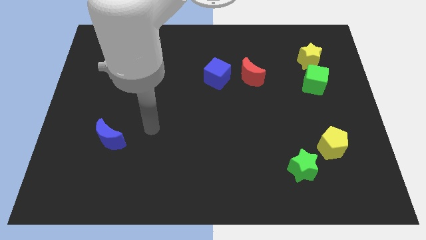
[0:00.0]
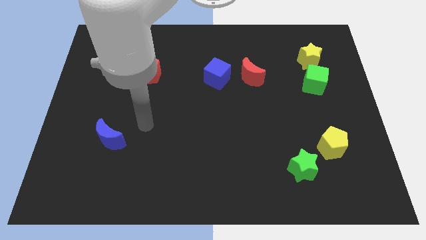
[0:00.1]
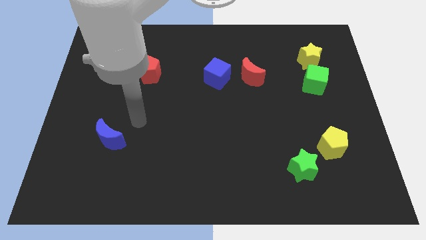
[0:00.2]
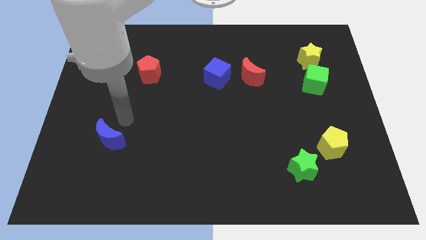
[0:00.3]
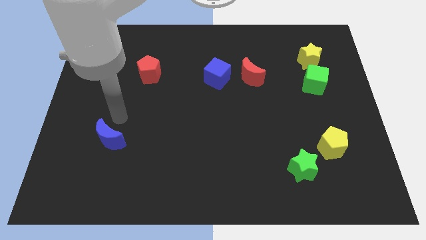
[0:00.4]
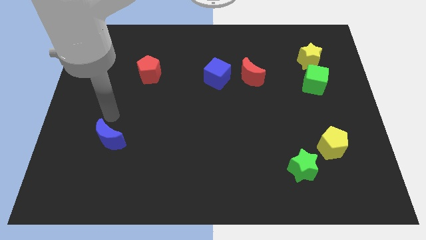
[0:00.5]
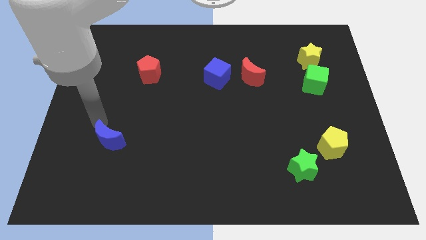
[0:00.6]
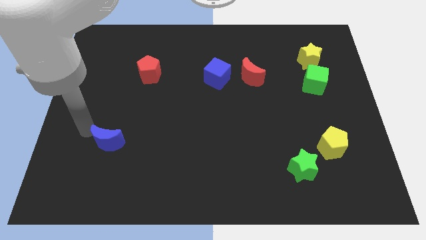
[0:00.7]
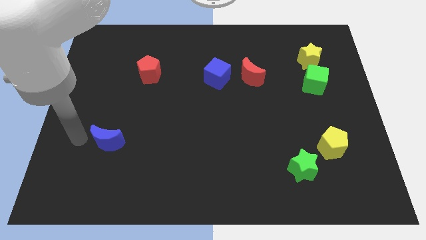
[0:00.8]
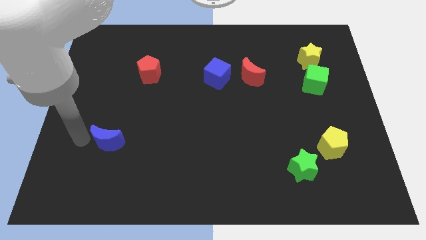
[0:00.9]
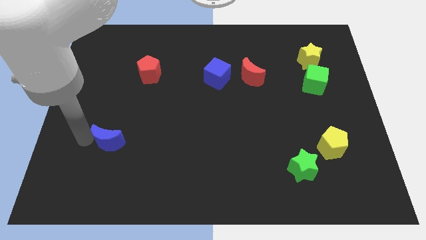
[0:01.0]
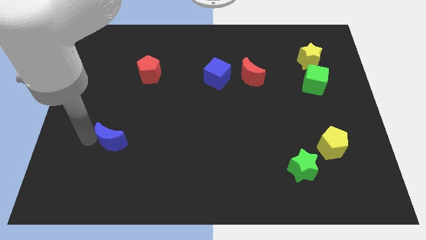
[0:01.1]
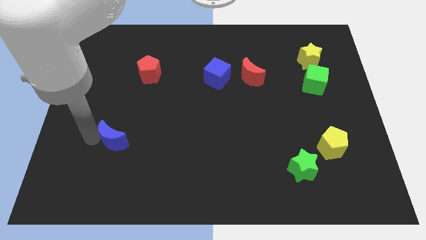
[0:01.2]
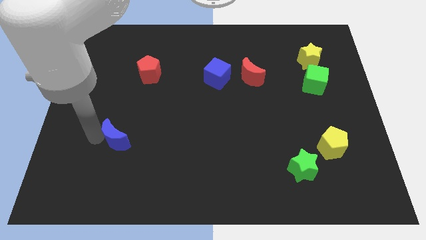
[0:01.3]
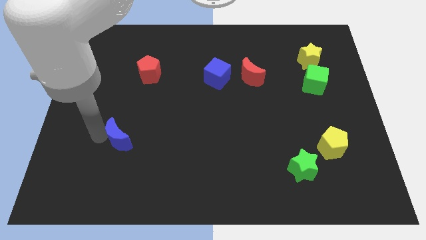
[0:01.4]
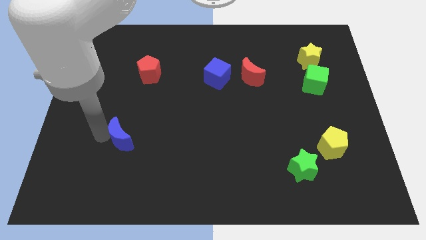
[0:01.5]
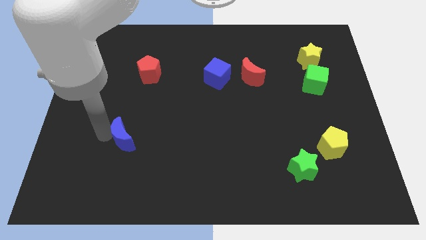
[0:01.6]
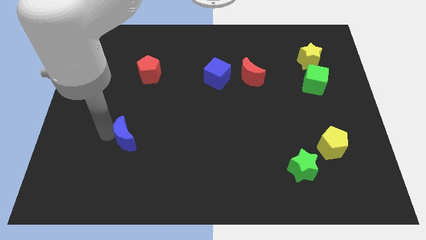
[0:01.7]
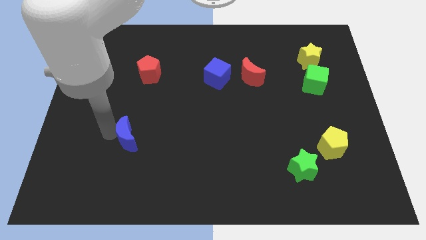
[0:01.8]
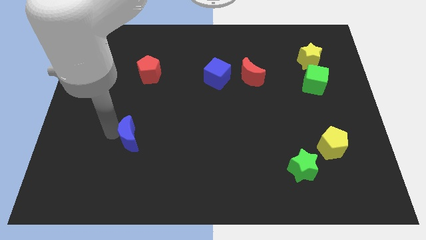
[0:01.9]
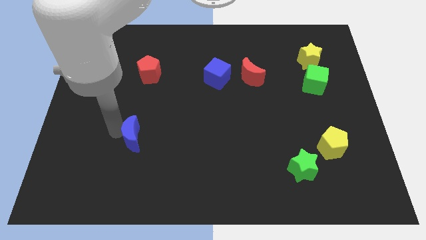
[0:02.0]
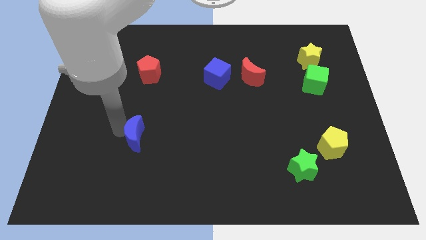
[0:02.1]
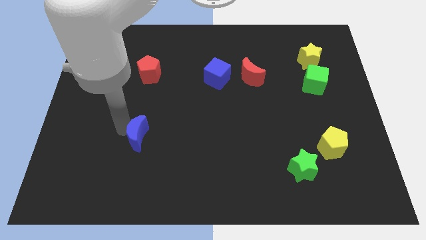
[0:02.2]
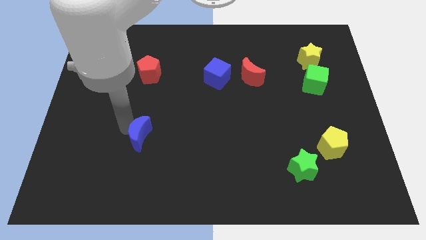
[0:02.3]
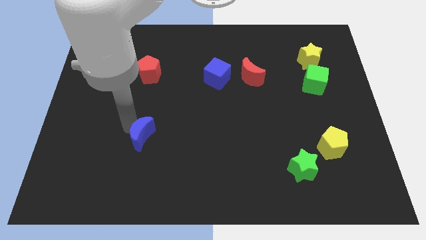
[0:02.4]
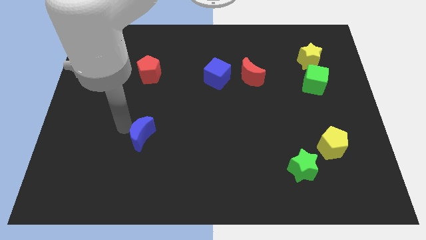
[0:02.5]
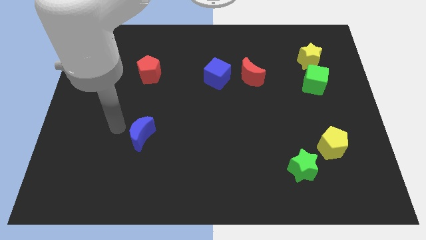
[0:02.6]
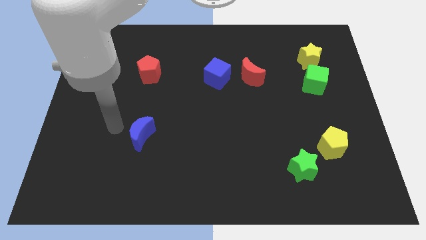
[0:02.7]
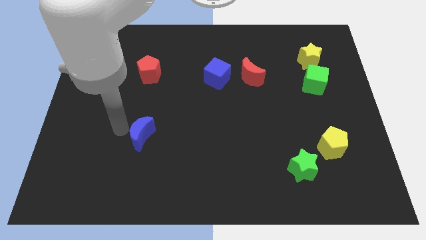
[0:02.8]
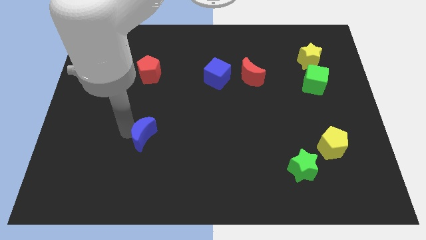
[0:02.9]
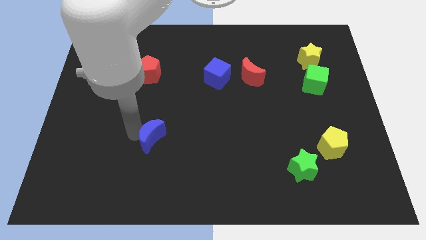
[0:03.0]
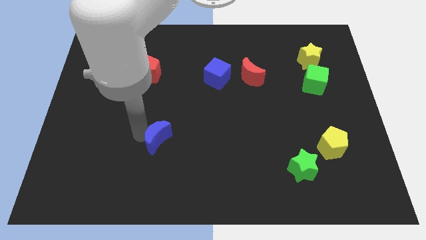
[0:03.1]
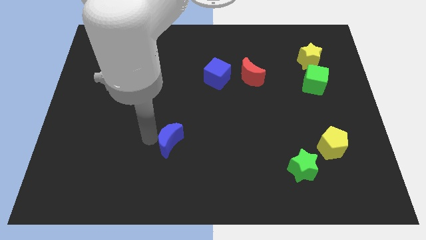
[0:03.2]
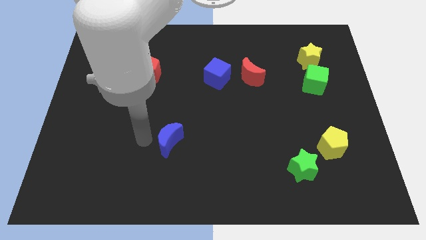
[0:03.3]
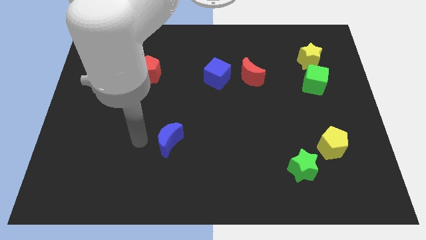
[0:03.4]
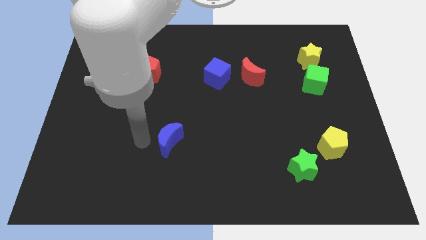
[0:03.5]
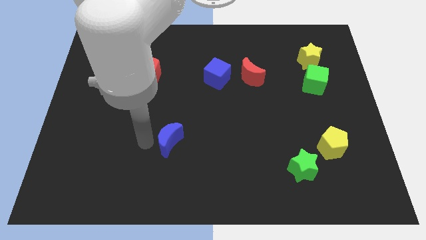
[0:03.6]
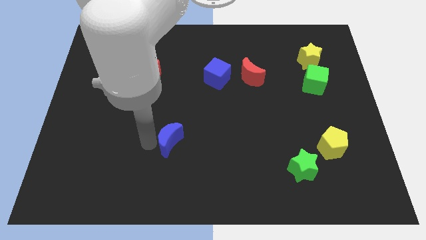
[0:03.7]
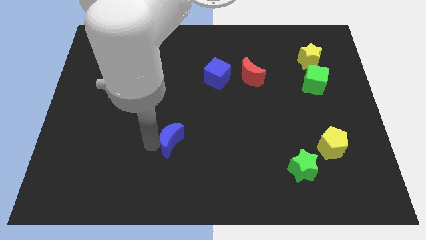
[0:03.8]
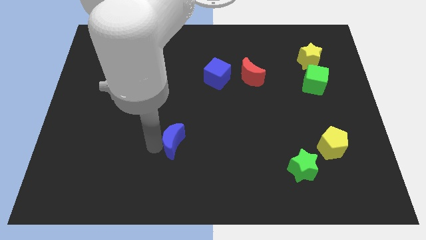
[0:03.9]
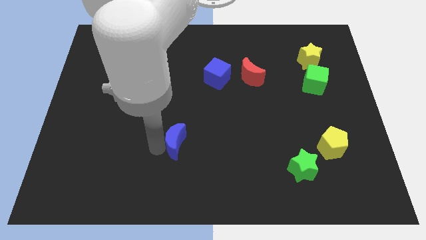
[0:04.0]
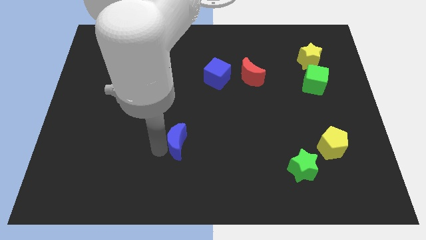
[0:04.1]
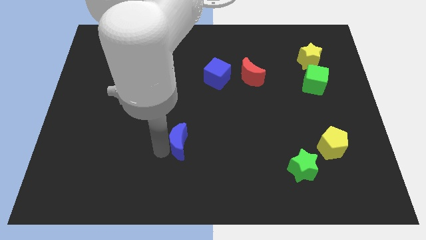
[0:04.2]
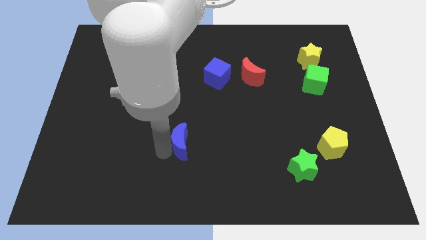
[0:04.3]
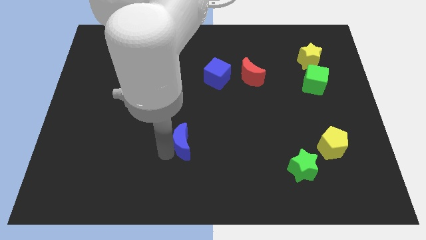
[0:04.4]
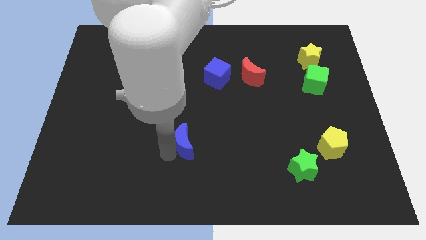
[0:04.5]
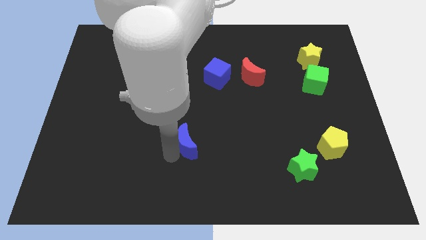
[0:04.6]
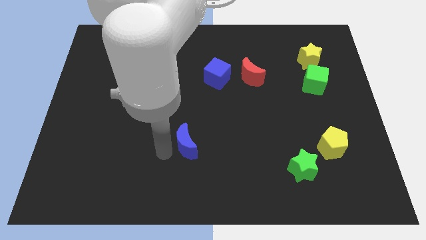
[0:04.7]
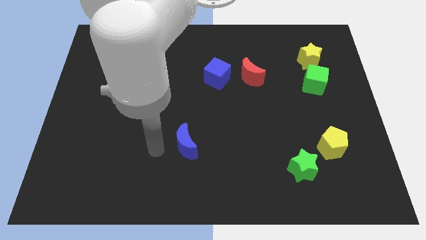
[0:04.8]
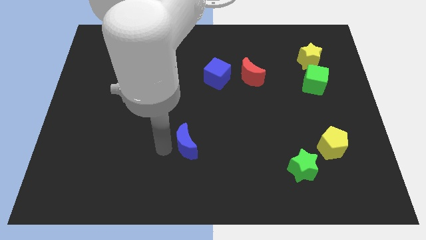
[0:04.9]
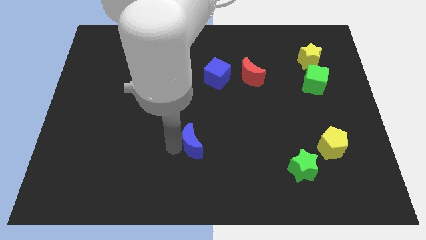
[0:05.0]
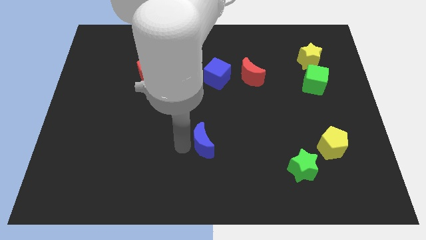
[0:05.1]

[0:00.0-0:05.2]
push the blue moon to the right

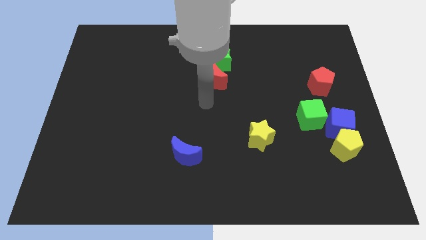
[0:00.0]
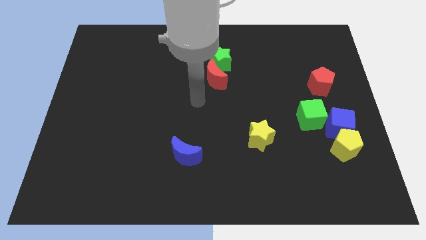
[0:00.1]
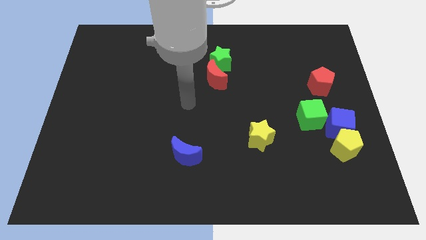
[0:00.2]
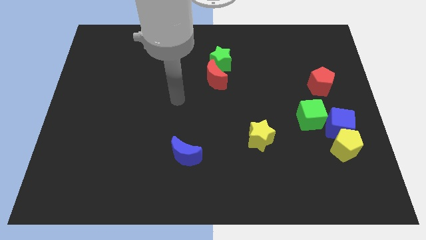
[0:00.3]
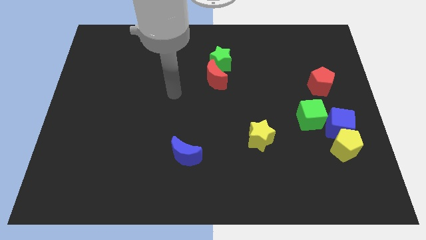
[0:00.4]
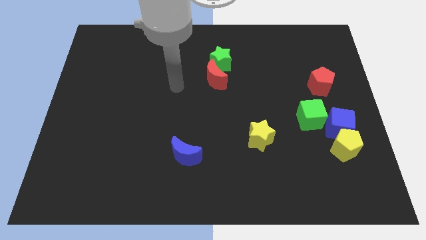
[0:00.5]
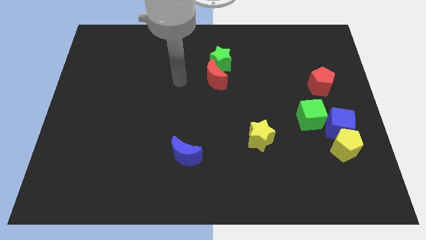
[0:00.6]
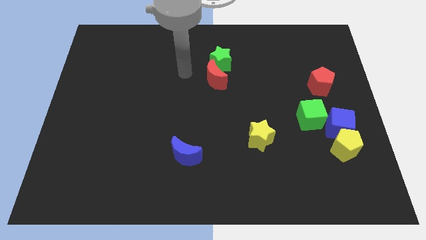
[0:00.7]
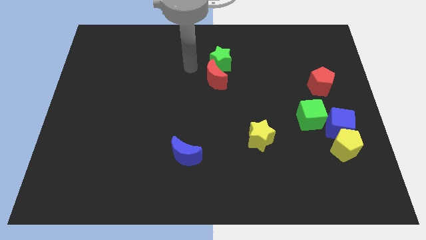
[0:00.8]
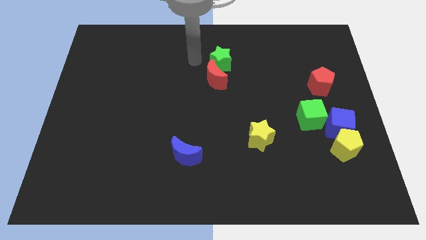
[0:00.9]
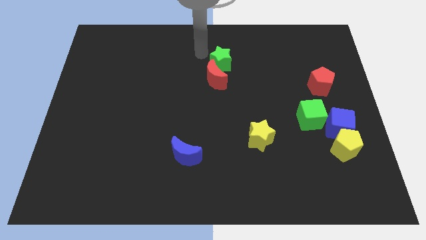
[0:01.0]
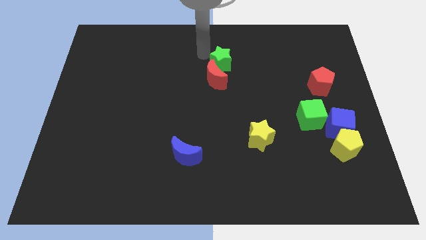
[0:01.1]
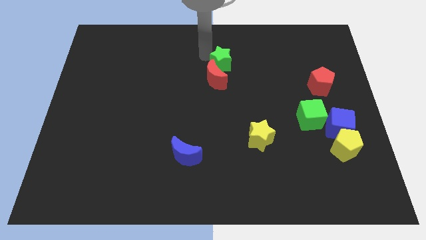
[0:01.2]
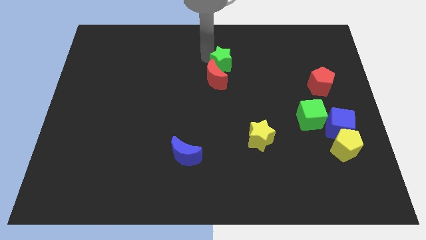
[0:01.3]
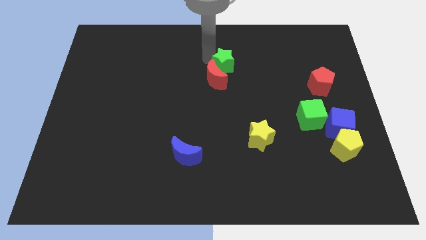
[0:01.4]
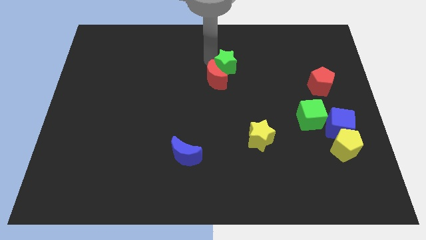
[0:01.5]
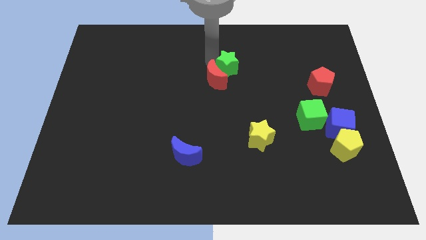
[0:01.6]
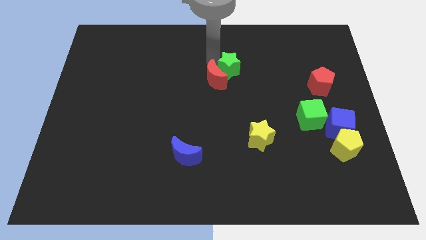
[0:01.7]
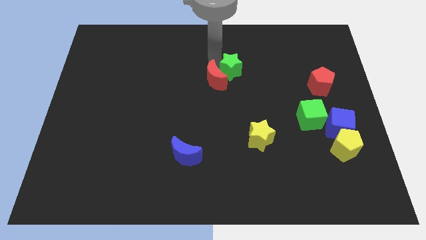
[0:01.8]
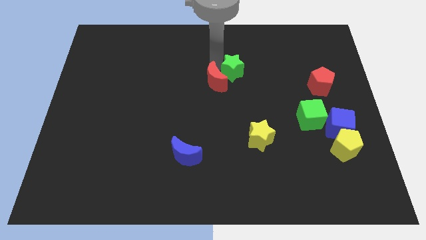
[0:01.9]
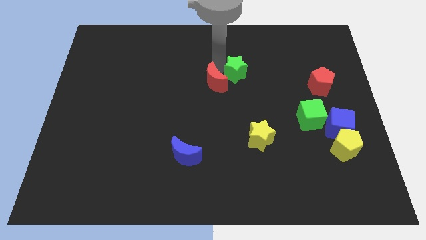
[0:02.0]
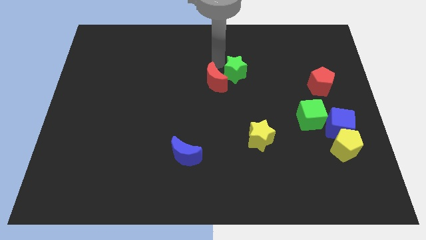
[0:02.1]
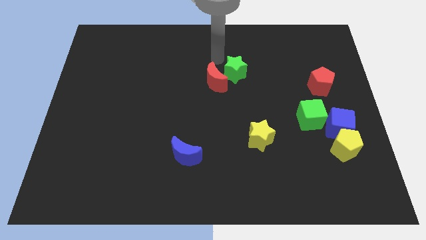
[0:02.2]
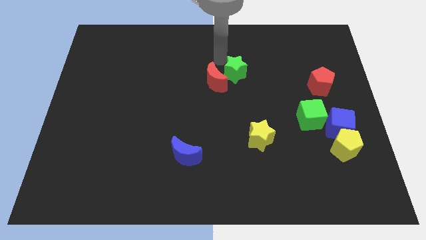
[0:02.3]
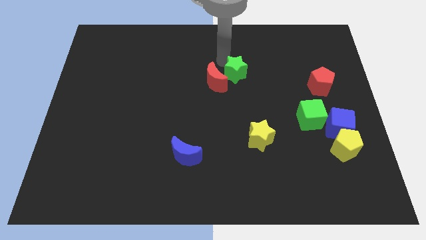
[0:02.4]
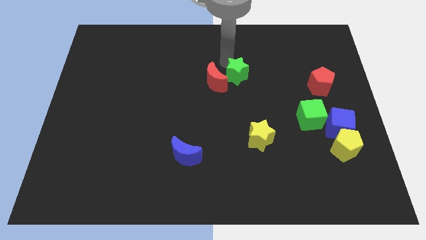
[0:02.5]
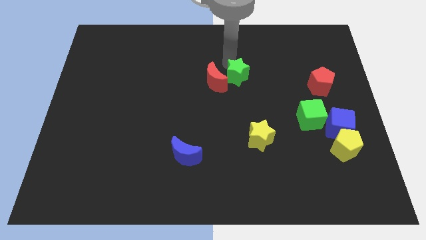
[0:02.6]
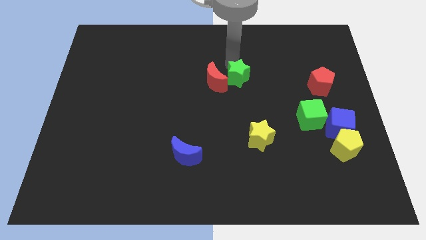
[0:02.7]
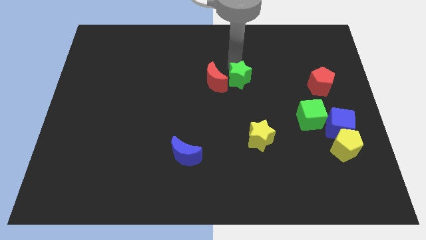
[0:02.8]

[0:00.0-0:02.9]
push the green star a bit diagonally down and to the right
